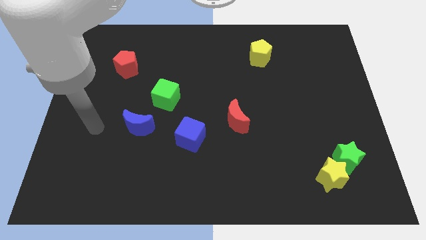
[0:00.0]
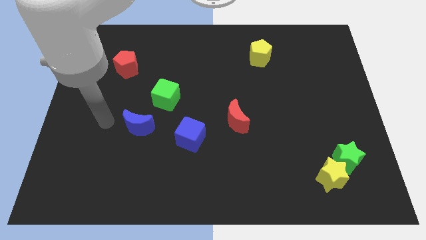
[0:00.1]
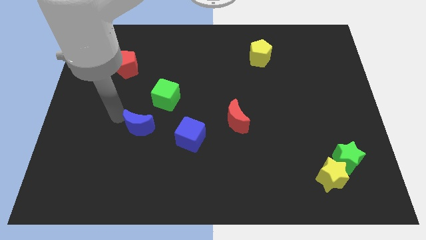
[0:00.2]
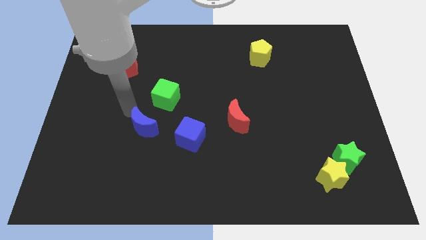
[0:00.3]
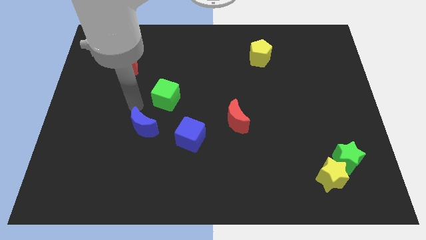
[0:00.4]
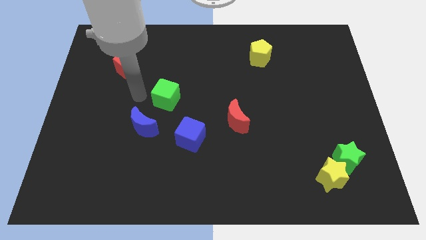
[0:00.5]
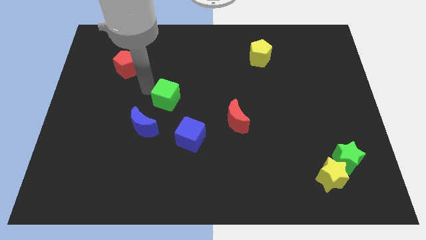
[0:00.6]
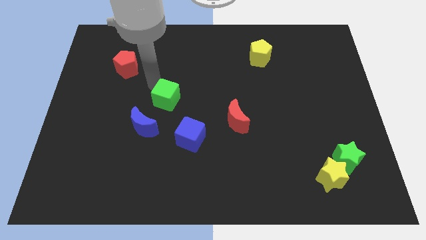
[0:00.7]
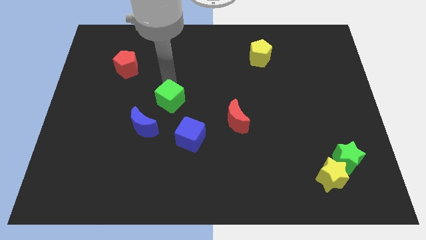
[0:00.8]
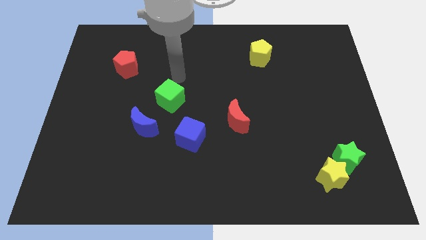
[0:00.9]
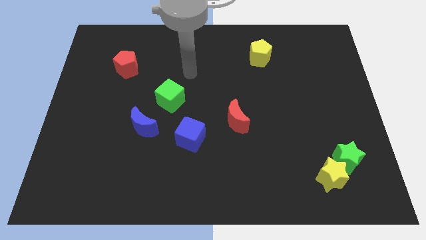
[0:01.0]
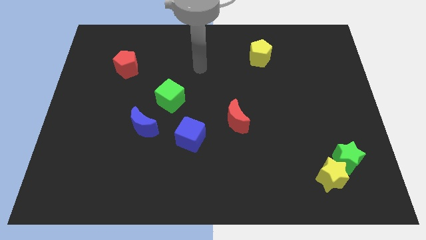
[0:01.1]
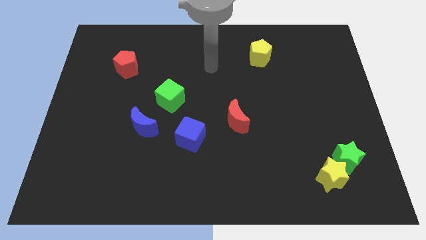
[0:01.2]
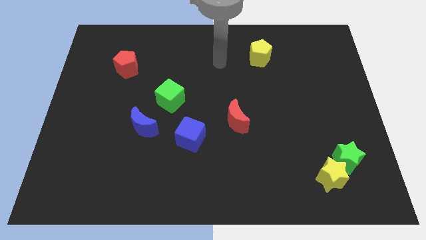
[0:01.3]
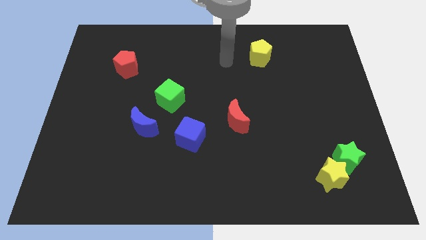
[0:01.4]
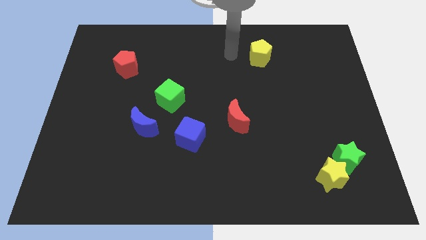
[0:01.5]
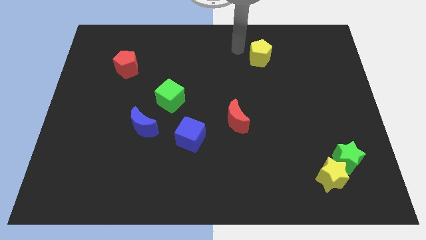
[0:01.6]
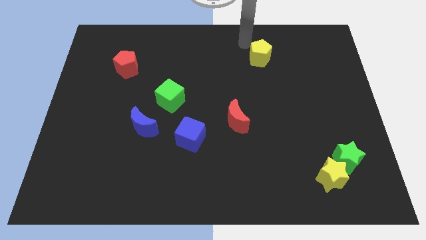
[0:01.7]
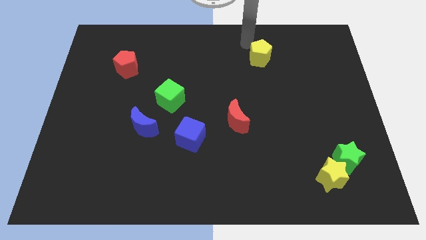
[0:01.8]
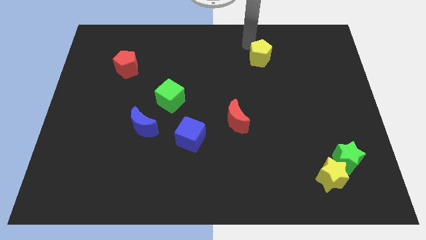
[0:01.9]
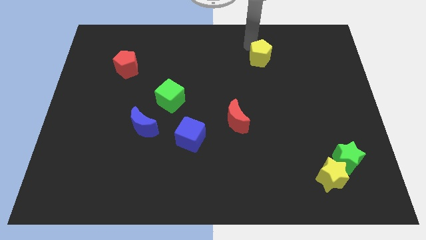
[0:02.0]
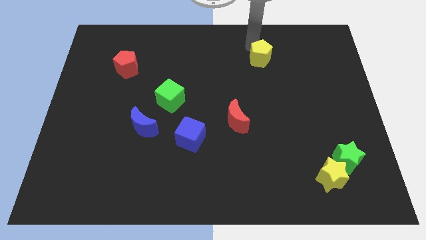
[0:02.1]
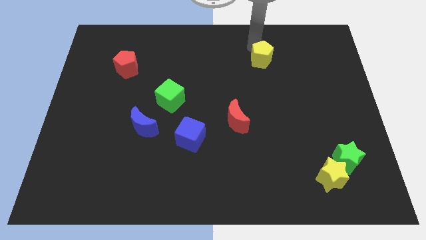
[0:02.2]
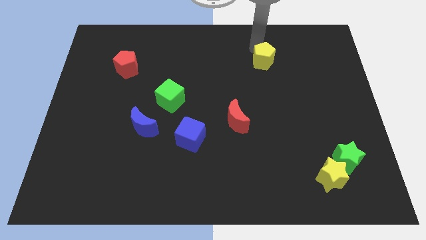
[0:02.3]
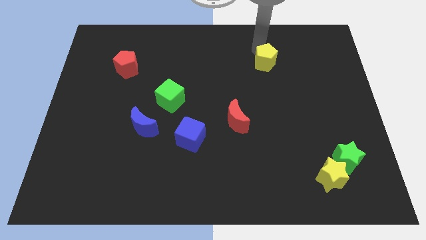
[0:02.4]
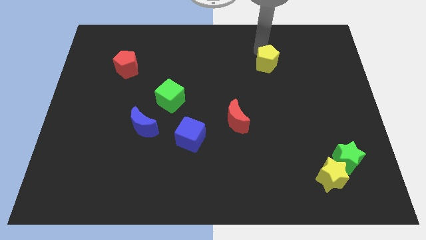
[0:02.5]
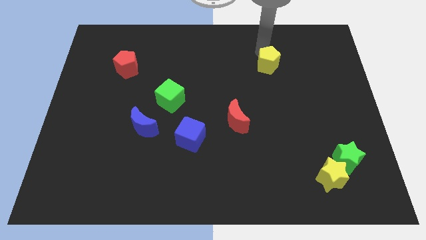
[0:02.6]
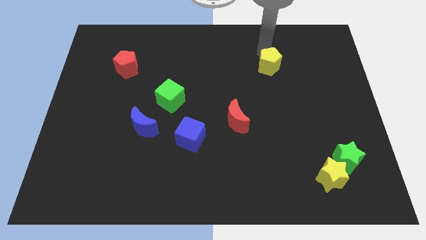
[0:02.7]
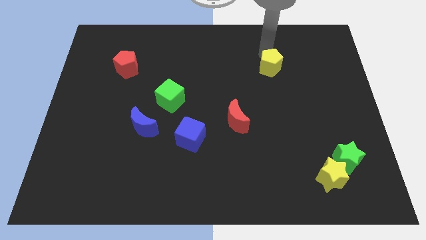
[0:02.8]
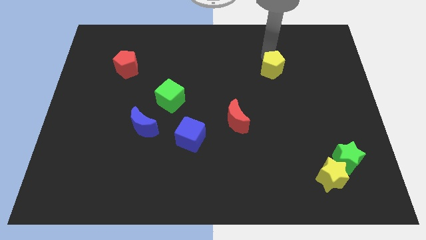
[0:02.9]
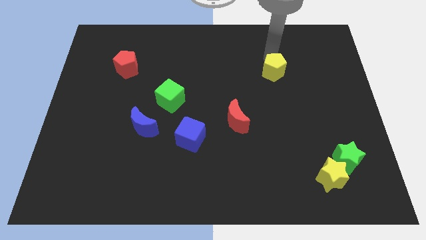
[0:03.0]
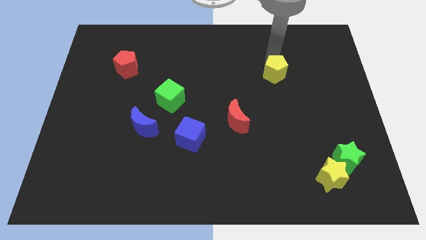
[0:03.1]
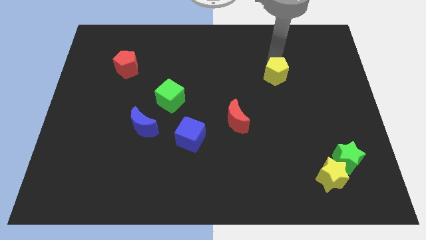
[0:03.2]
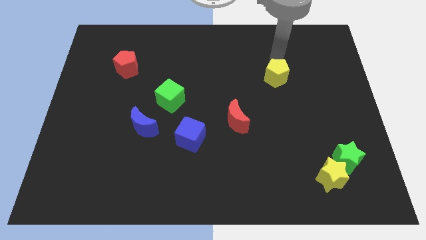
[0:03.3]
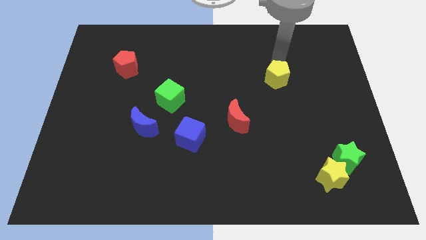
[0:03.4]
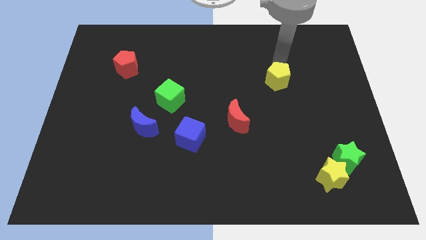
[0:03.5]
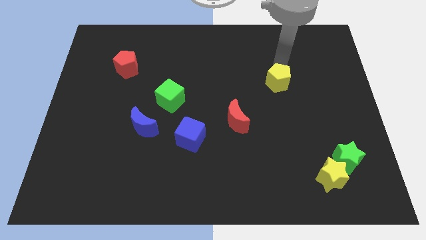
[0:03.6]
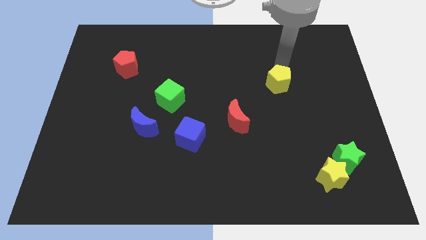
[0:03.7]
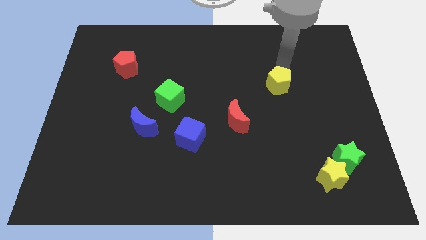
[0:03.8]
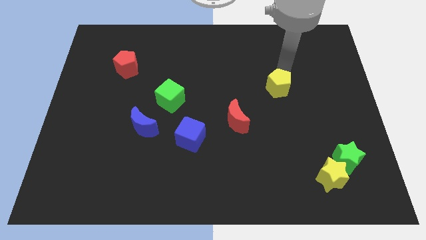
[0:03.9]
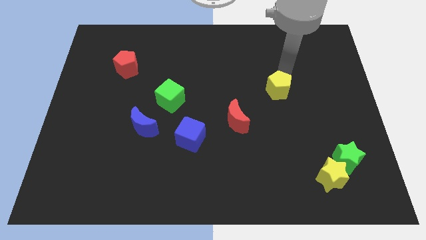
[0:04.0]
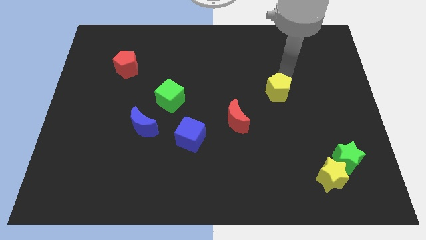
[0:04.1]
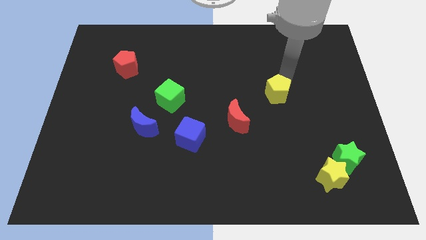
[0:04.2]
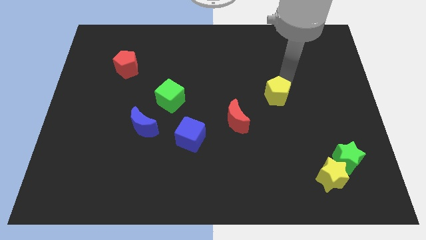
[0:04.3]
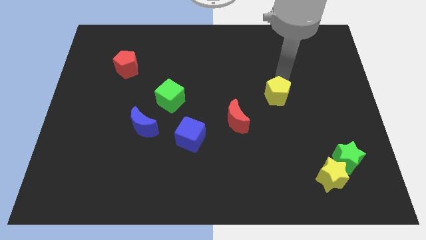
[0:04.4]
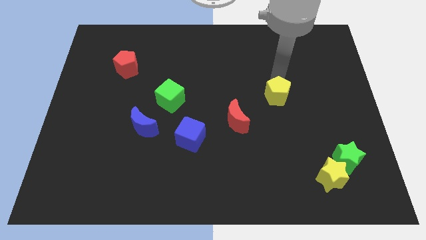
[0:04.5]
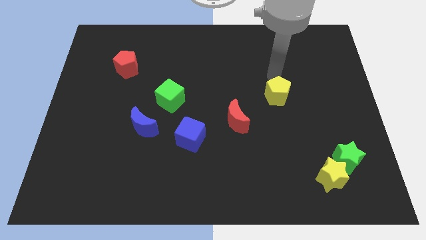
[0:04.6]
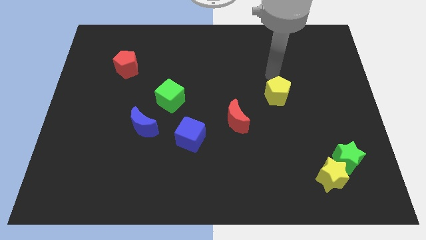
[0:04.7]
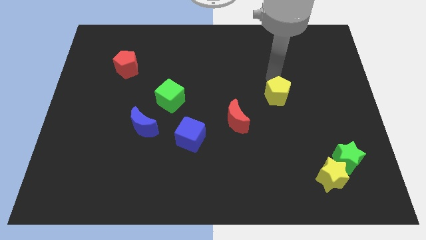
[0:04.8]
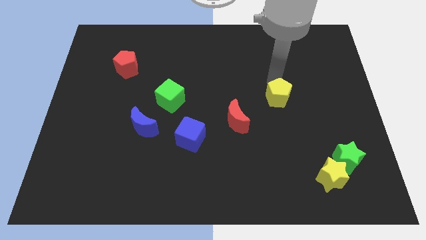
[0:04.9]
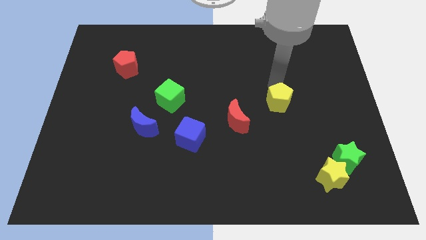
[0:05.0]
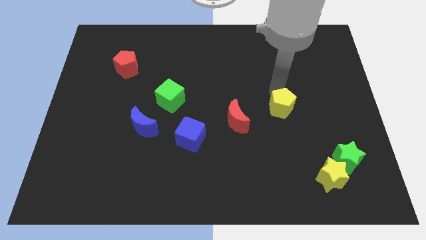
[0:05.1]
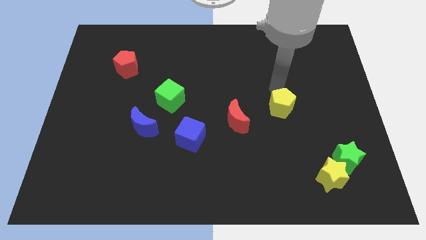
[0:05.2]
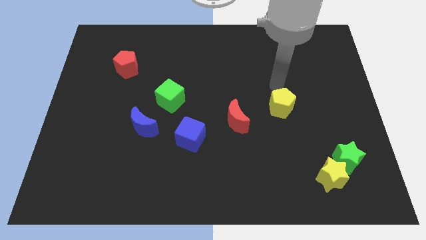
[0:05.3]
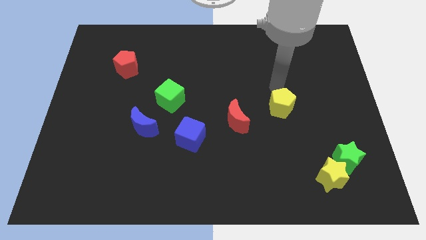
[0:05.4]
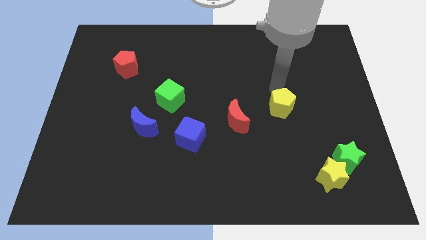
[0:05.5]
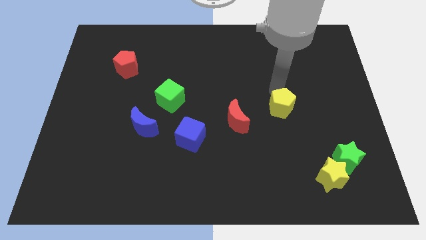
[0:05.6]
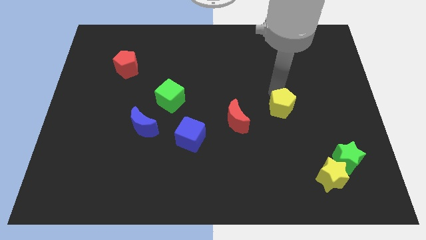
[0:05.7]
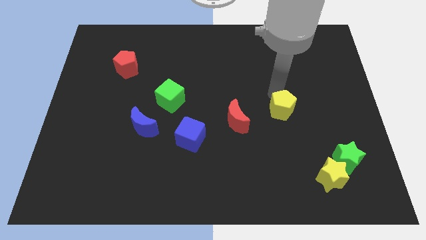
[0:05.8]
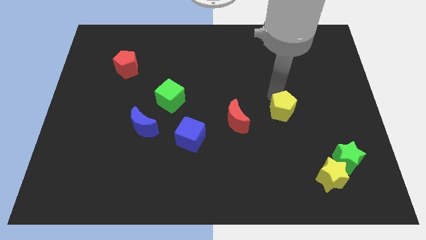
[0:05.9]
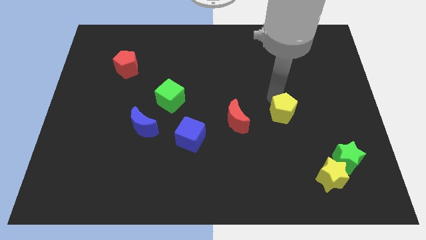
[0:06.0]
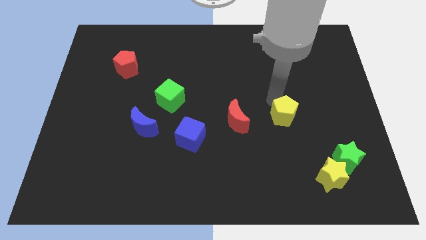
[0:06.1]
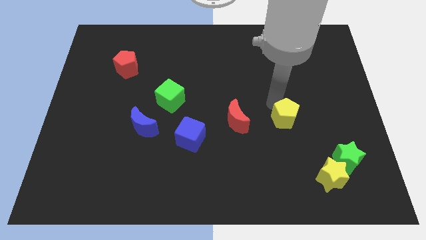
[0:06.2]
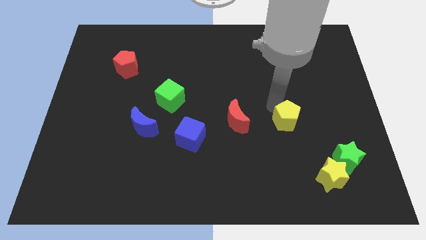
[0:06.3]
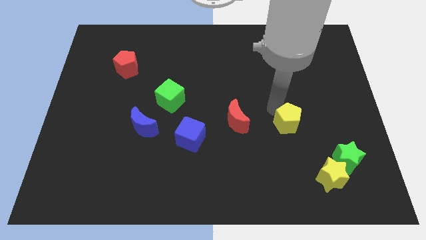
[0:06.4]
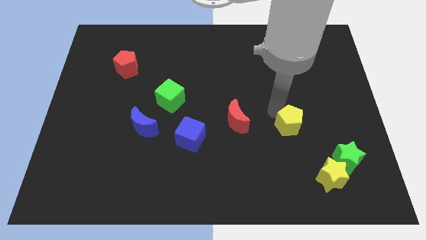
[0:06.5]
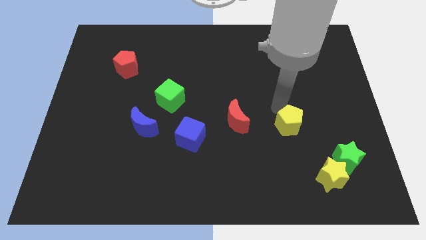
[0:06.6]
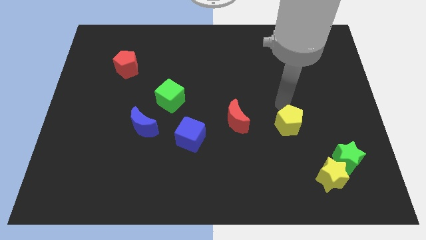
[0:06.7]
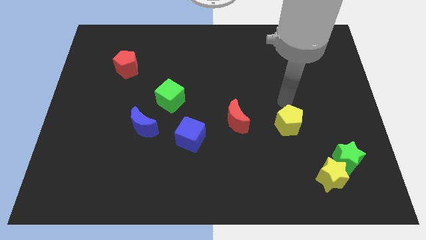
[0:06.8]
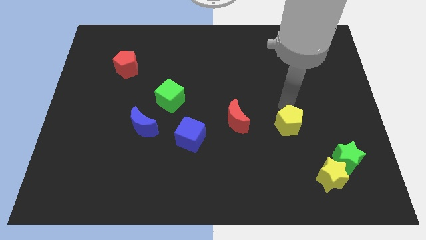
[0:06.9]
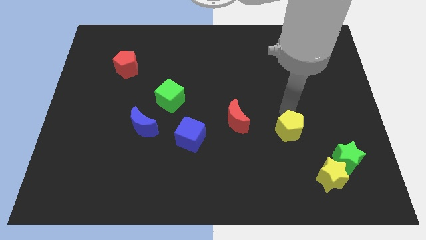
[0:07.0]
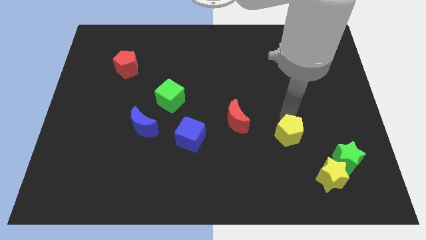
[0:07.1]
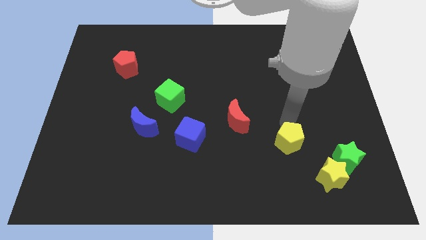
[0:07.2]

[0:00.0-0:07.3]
put the yellow pentagon left of the green star
